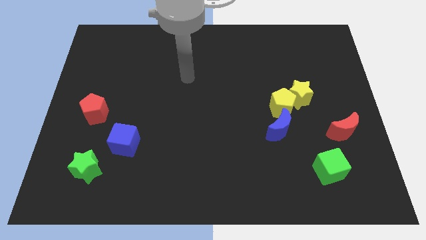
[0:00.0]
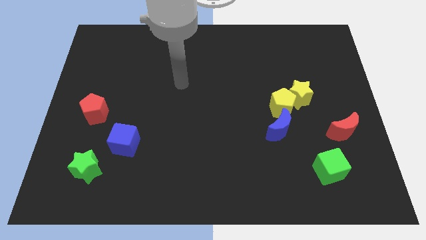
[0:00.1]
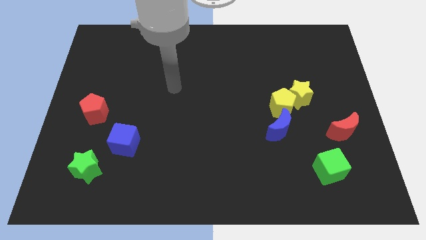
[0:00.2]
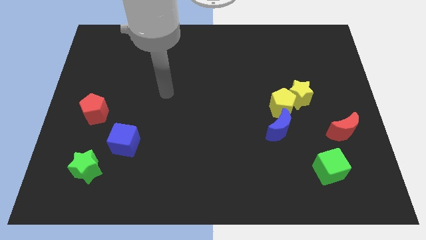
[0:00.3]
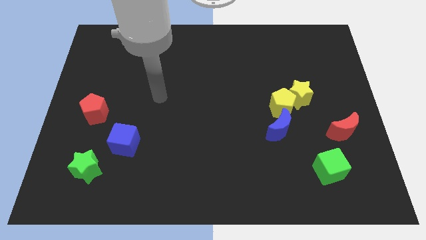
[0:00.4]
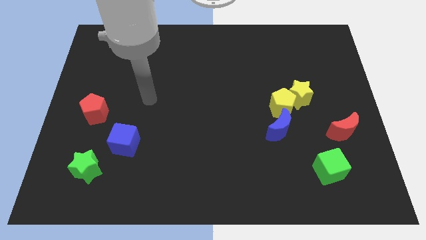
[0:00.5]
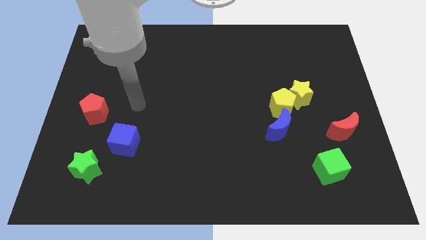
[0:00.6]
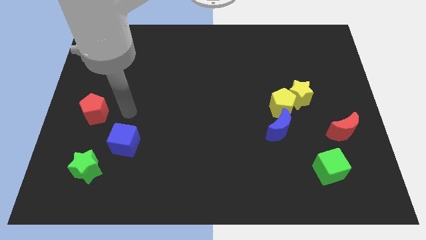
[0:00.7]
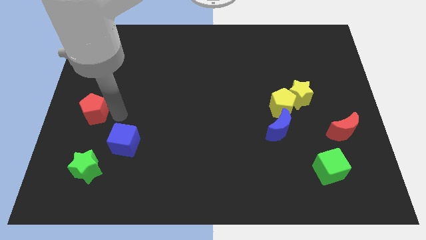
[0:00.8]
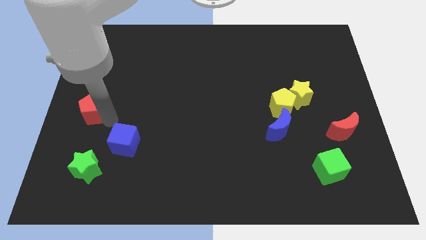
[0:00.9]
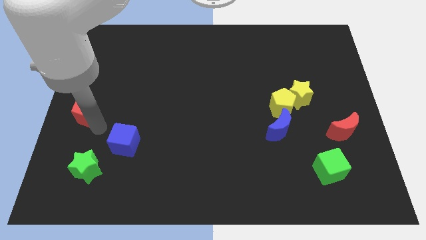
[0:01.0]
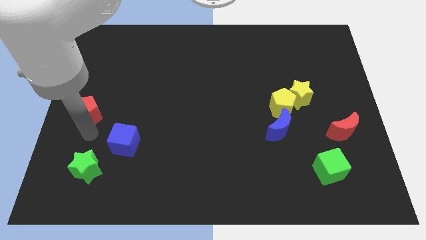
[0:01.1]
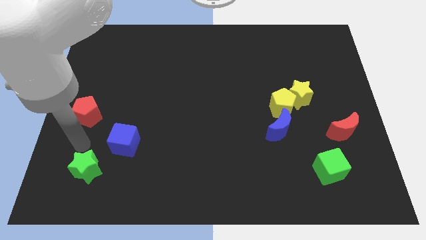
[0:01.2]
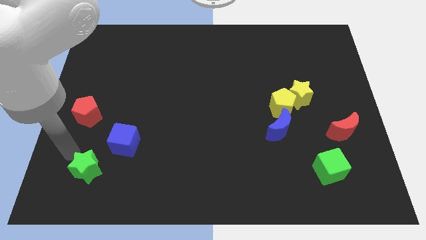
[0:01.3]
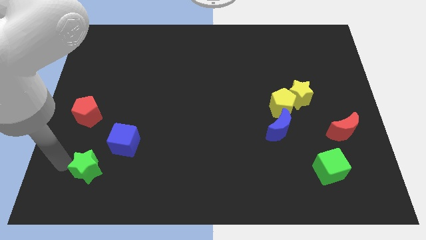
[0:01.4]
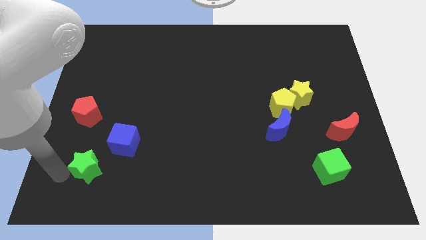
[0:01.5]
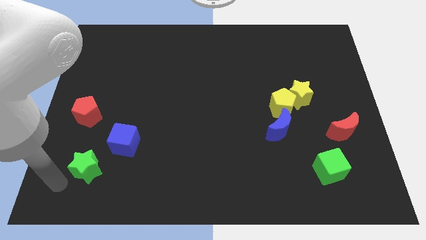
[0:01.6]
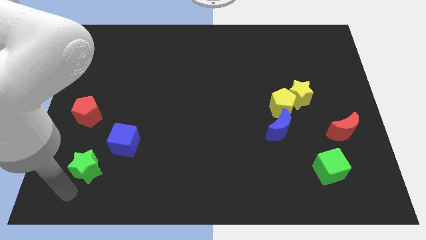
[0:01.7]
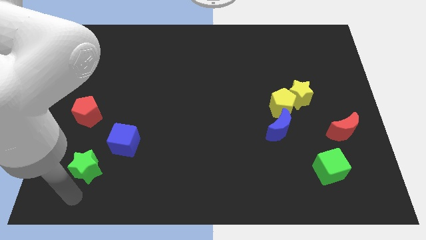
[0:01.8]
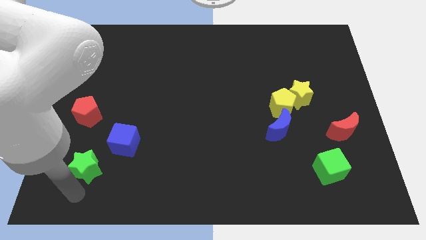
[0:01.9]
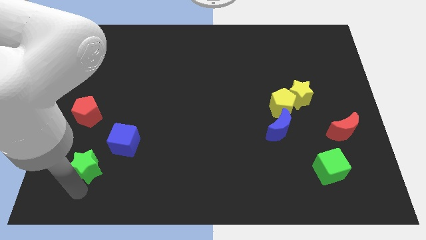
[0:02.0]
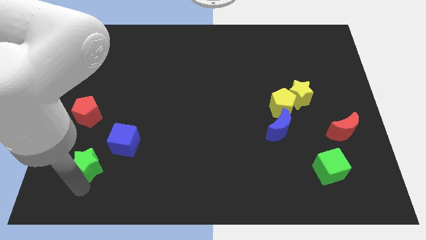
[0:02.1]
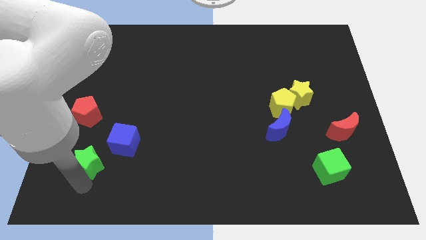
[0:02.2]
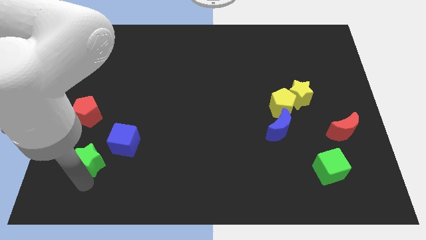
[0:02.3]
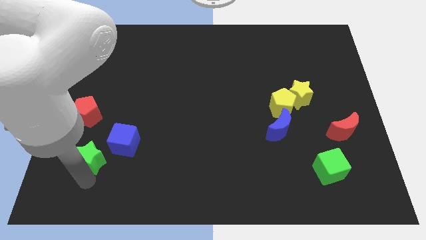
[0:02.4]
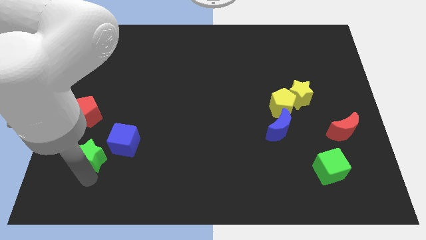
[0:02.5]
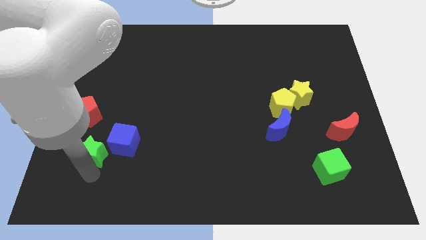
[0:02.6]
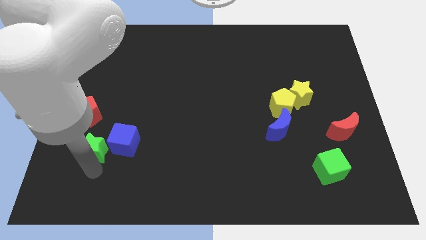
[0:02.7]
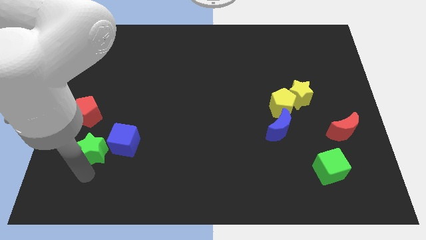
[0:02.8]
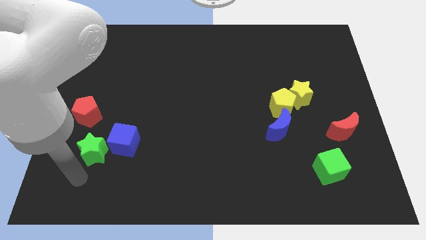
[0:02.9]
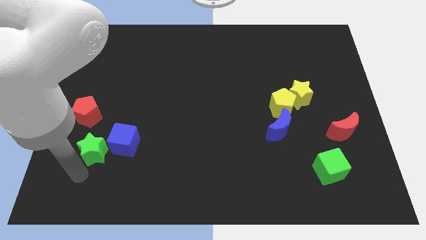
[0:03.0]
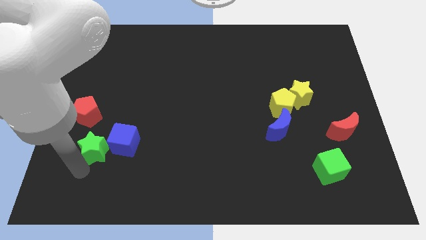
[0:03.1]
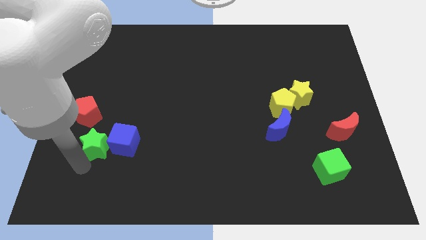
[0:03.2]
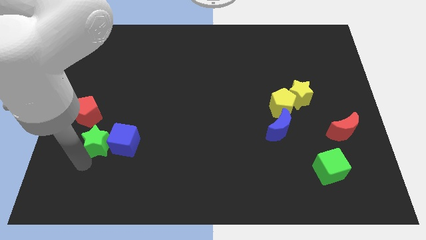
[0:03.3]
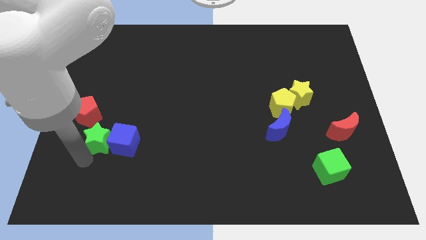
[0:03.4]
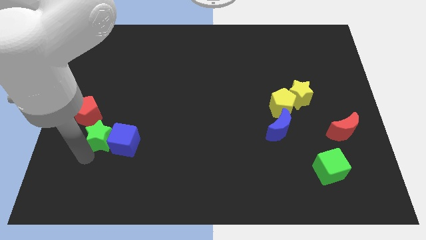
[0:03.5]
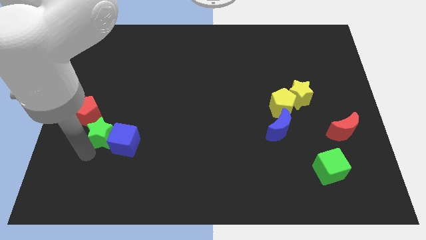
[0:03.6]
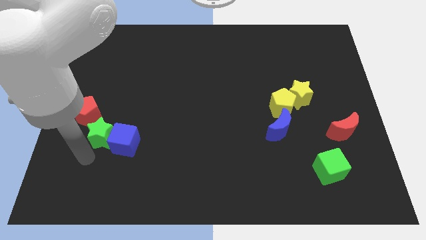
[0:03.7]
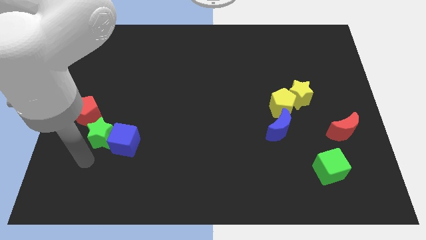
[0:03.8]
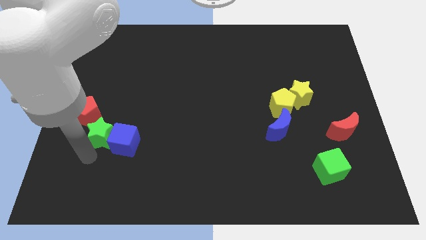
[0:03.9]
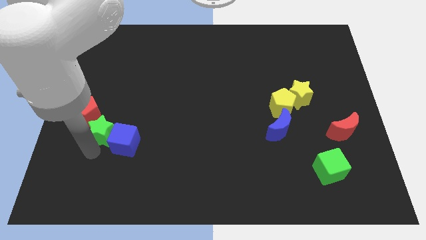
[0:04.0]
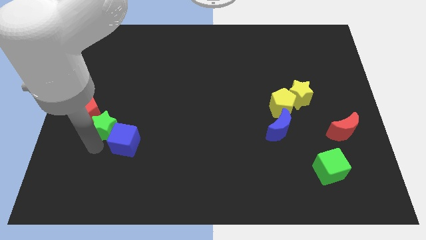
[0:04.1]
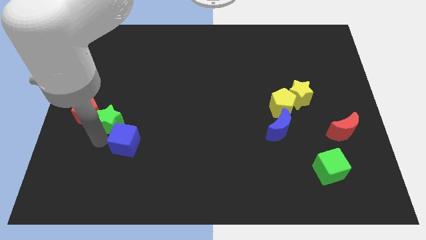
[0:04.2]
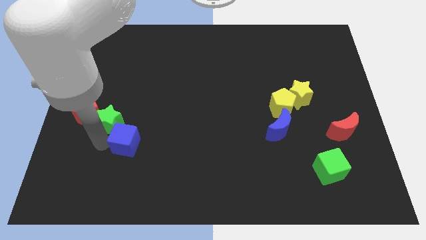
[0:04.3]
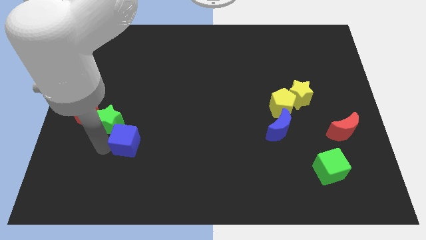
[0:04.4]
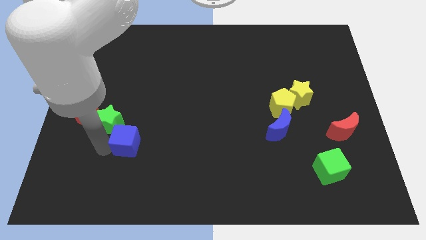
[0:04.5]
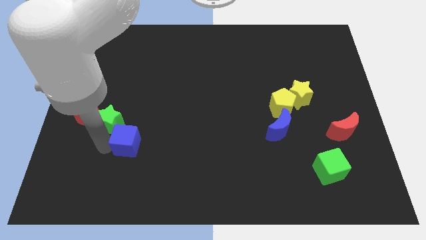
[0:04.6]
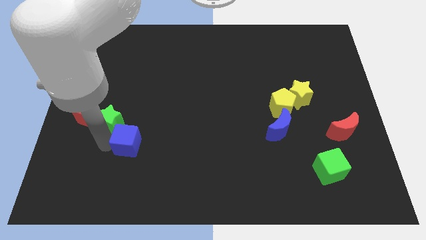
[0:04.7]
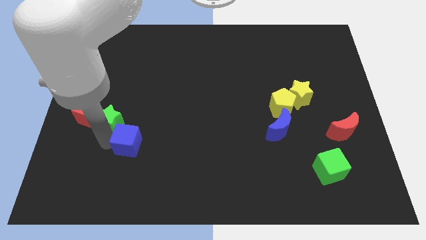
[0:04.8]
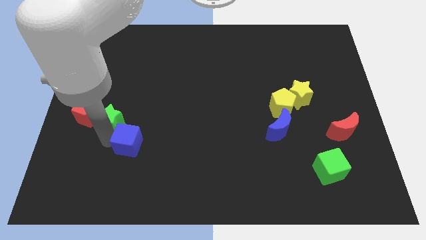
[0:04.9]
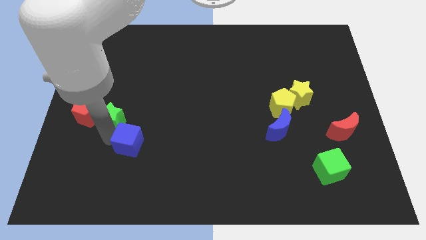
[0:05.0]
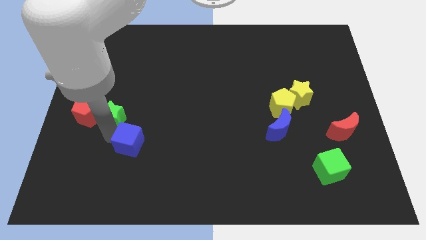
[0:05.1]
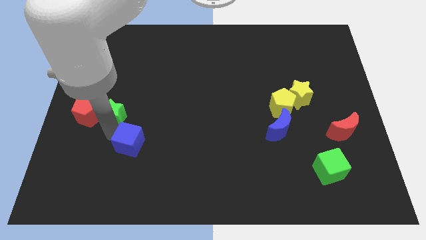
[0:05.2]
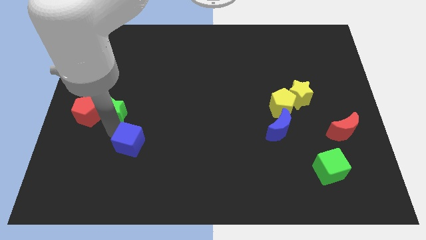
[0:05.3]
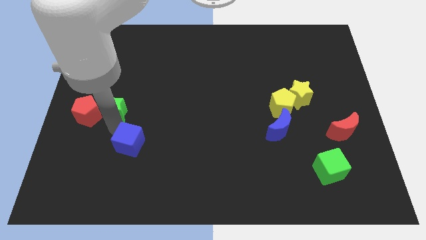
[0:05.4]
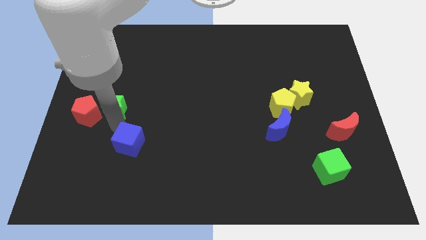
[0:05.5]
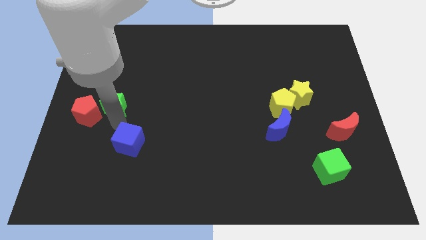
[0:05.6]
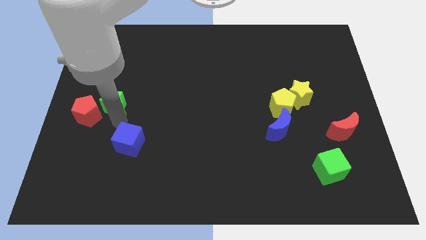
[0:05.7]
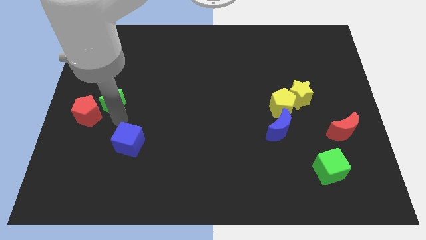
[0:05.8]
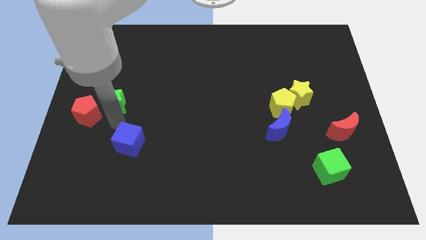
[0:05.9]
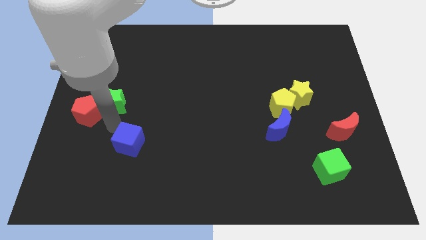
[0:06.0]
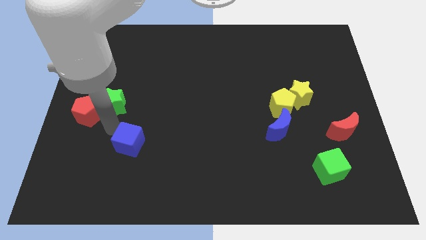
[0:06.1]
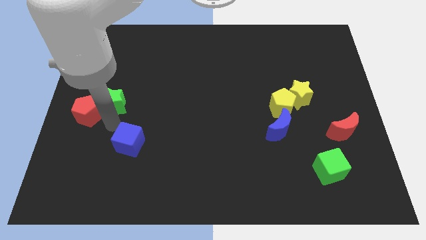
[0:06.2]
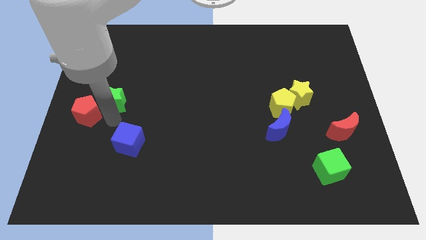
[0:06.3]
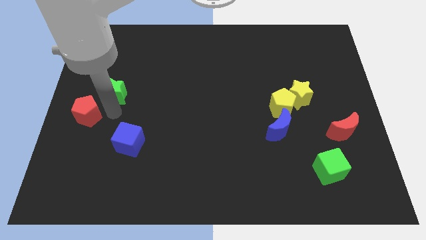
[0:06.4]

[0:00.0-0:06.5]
move the green star upwards

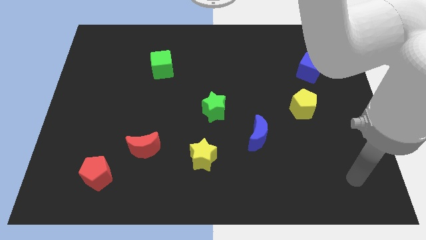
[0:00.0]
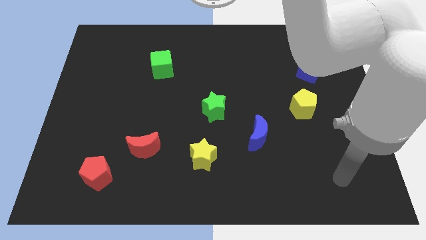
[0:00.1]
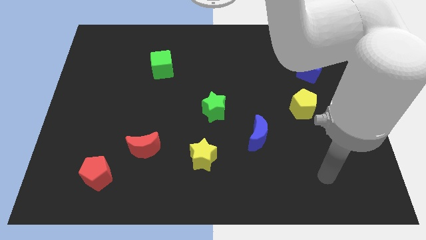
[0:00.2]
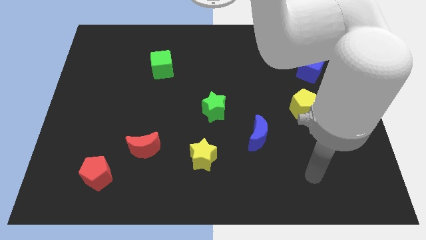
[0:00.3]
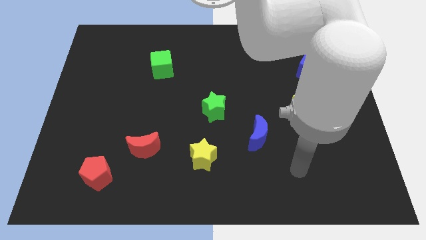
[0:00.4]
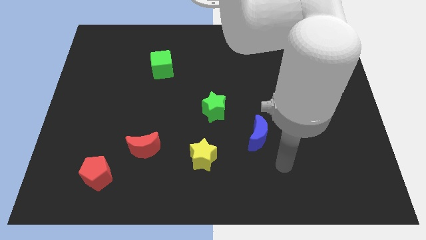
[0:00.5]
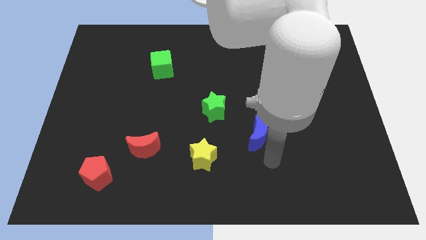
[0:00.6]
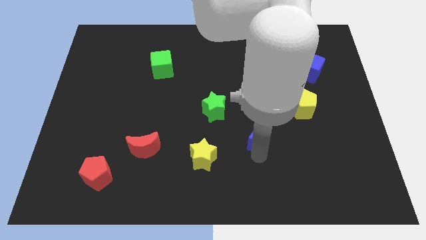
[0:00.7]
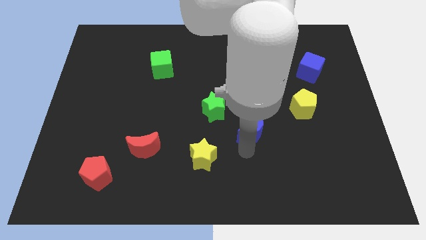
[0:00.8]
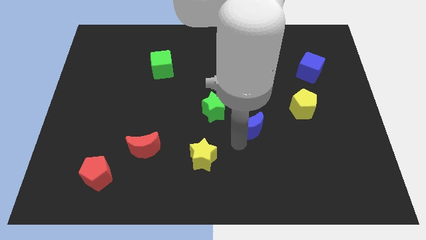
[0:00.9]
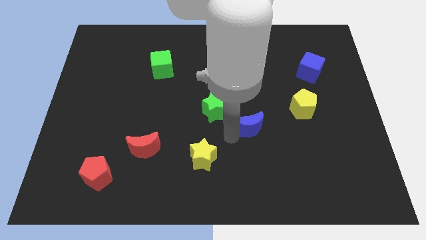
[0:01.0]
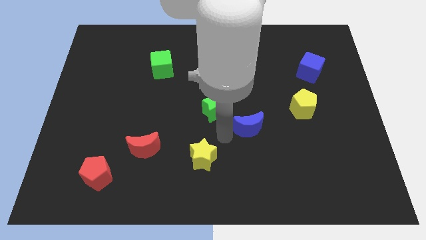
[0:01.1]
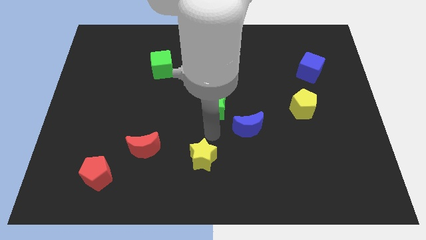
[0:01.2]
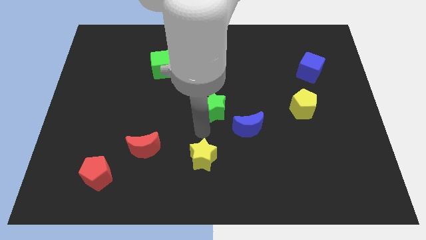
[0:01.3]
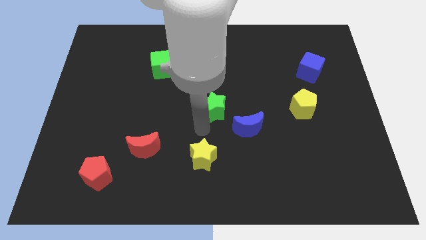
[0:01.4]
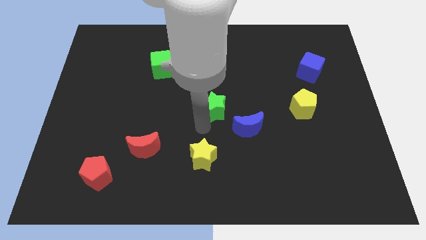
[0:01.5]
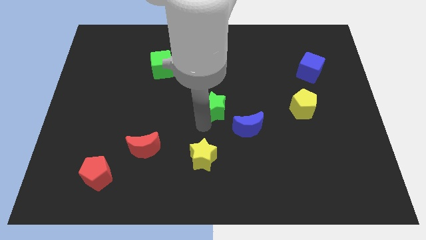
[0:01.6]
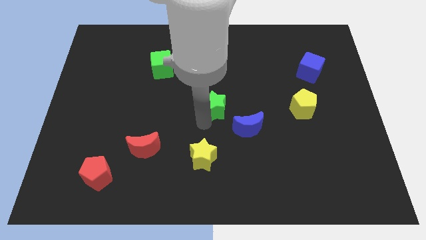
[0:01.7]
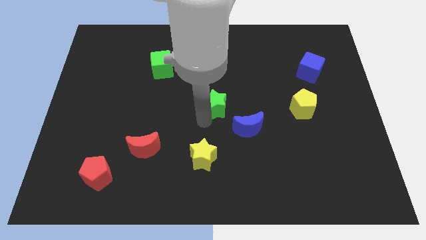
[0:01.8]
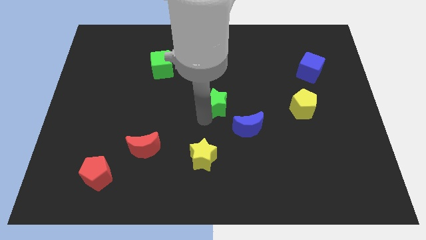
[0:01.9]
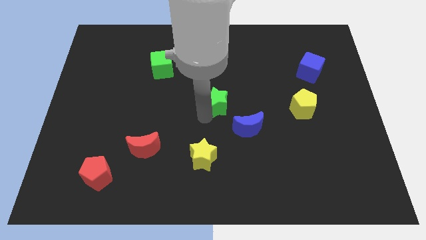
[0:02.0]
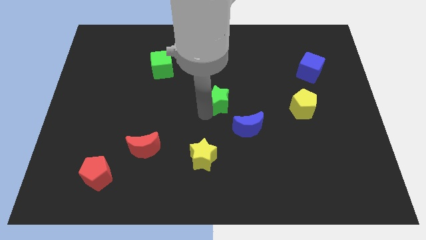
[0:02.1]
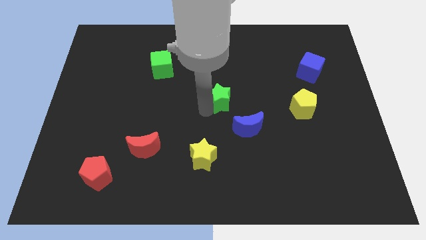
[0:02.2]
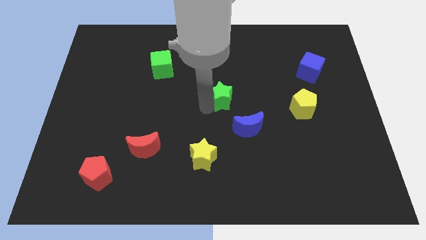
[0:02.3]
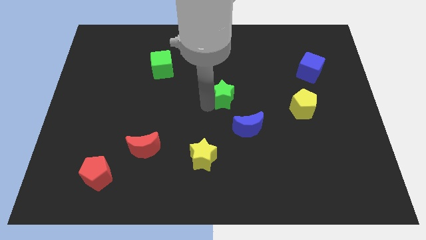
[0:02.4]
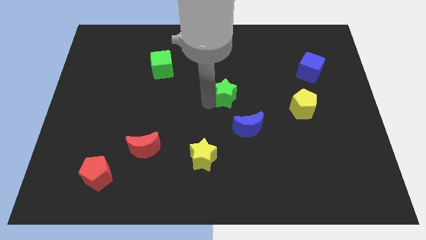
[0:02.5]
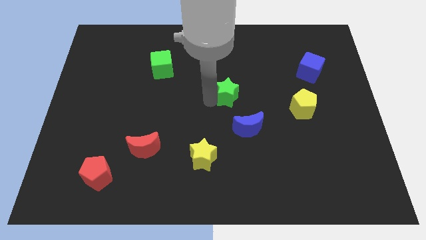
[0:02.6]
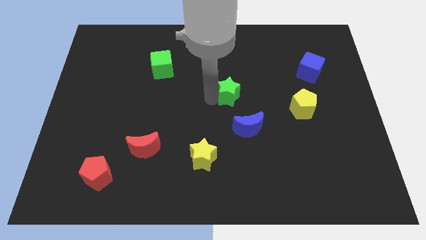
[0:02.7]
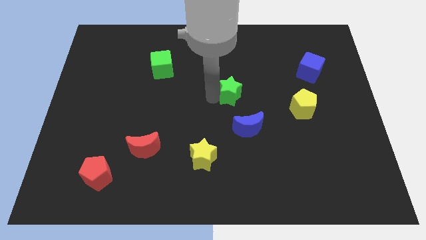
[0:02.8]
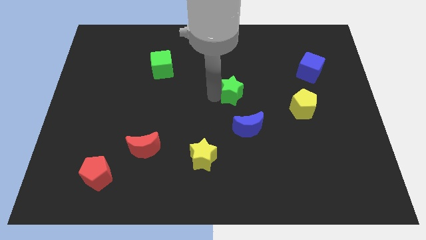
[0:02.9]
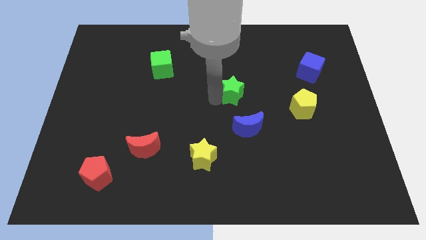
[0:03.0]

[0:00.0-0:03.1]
slide the green star upwards and right a little
